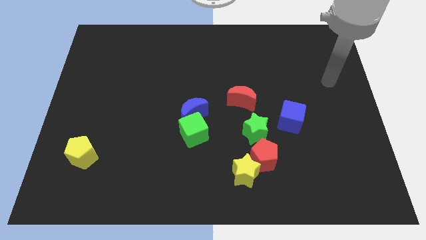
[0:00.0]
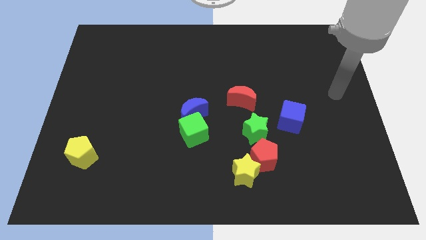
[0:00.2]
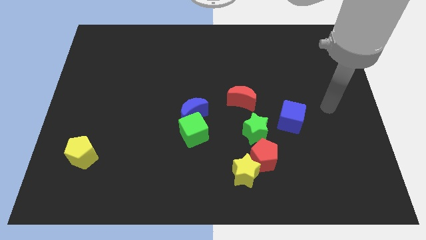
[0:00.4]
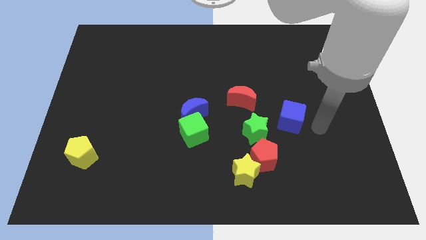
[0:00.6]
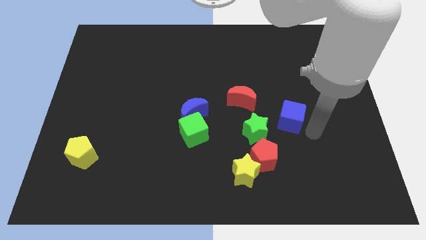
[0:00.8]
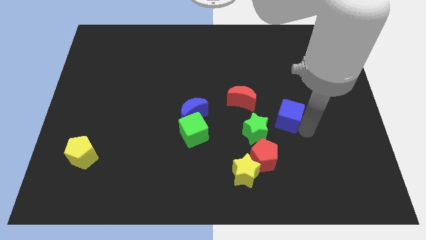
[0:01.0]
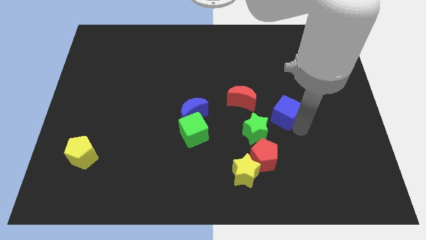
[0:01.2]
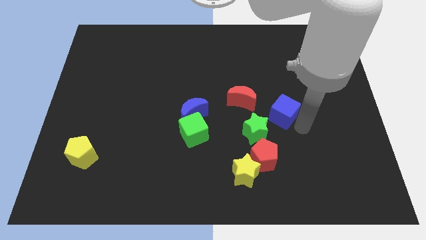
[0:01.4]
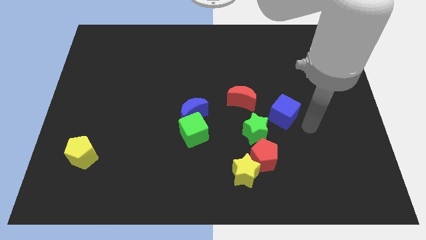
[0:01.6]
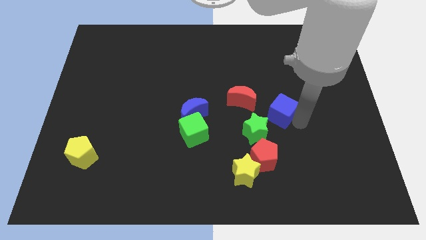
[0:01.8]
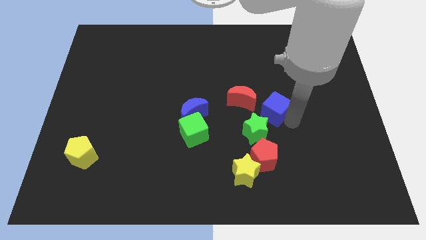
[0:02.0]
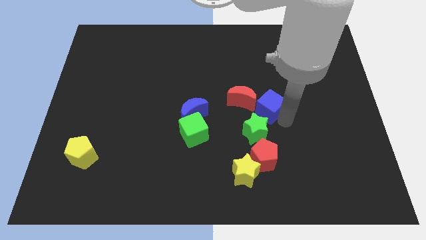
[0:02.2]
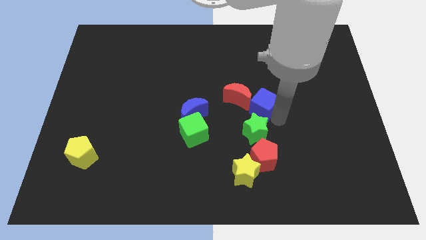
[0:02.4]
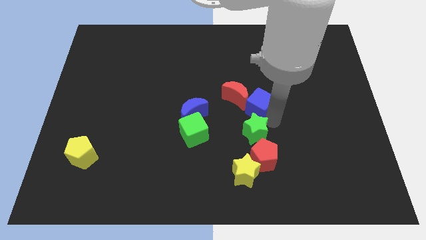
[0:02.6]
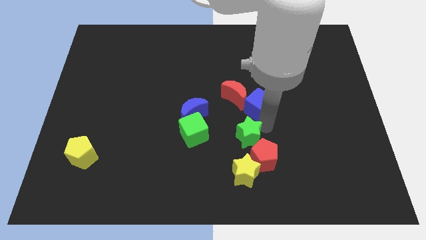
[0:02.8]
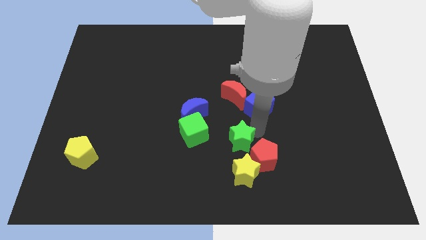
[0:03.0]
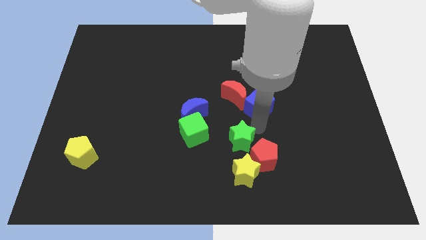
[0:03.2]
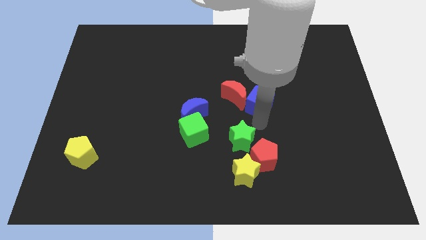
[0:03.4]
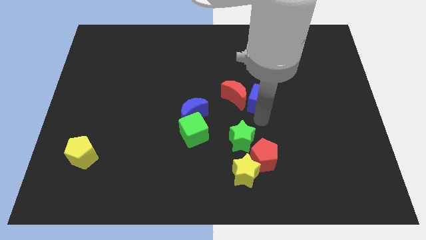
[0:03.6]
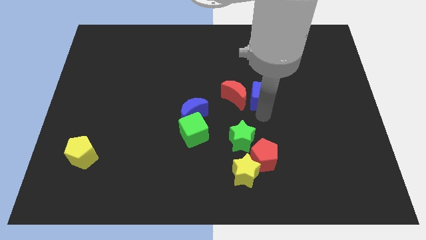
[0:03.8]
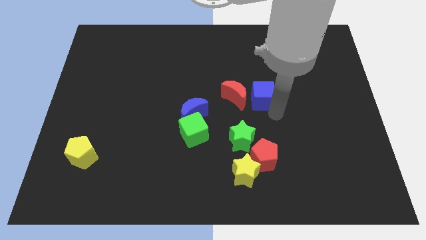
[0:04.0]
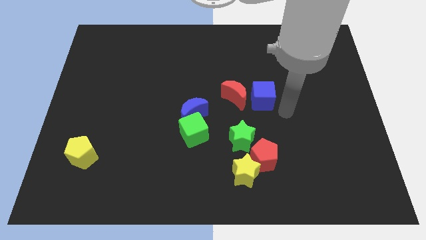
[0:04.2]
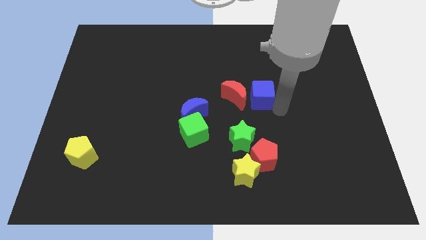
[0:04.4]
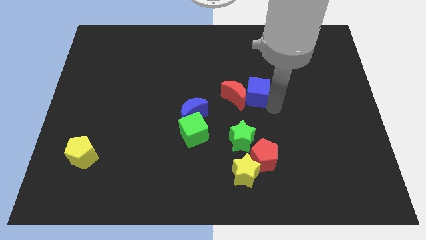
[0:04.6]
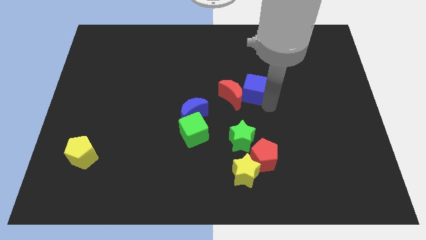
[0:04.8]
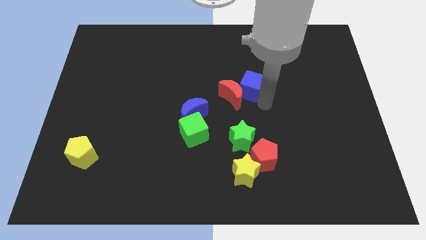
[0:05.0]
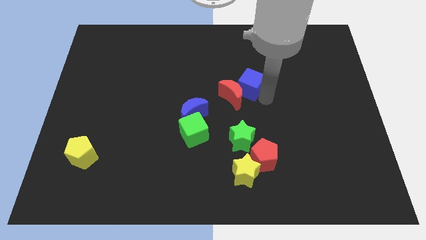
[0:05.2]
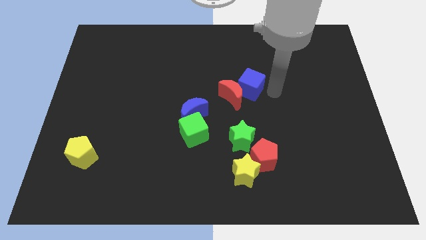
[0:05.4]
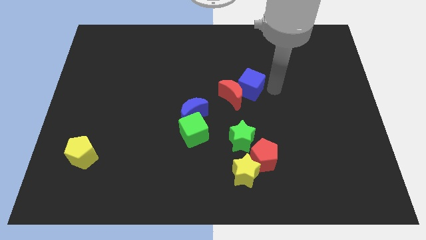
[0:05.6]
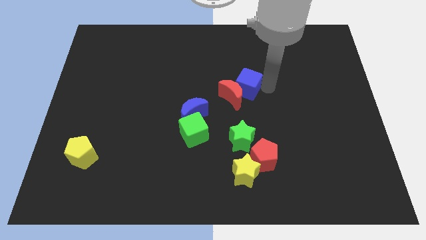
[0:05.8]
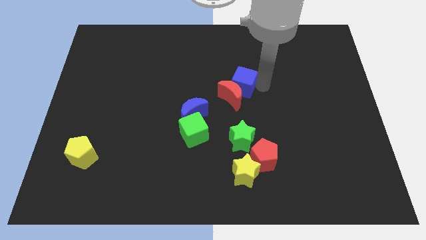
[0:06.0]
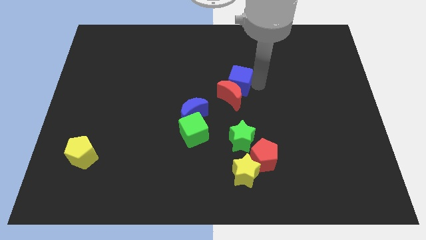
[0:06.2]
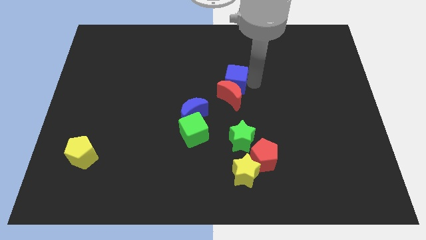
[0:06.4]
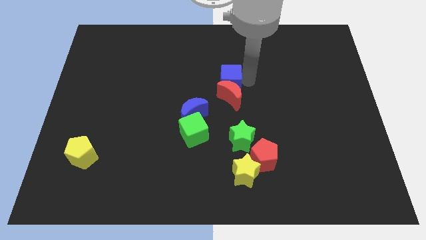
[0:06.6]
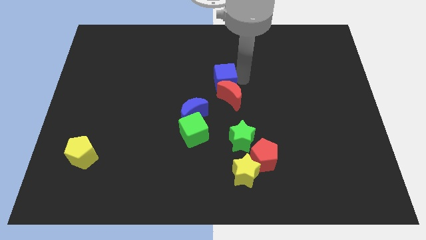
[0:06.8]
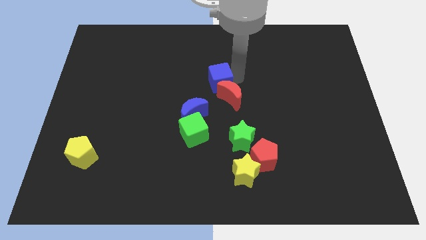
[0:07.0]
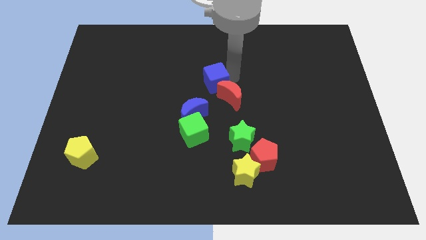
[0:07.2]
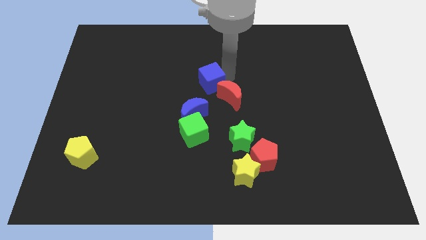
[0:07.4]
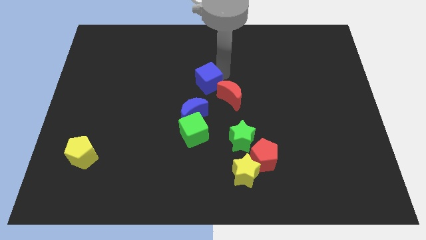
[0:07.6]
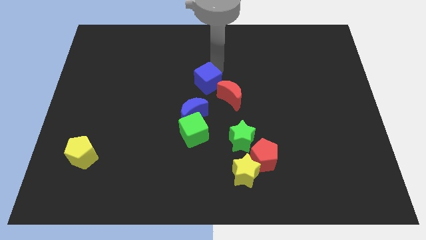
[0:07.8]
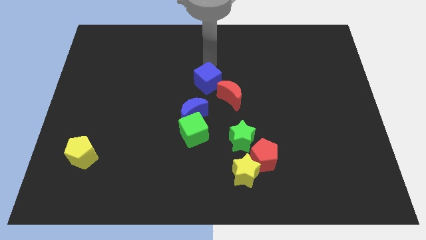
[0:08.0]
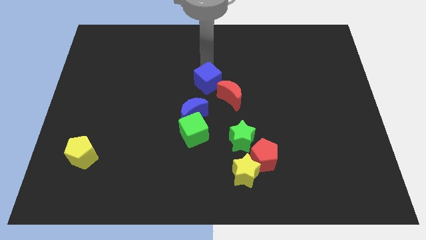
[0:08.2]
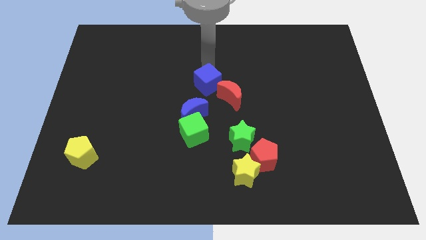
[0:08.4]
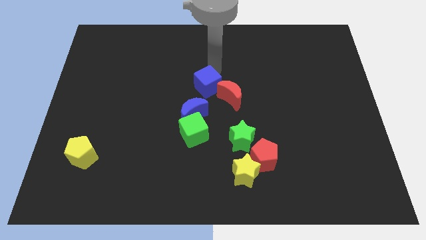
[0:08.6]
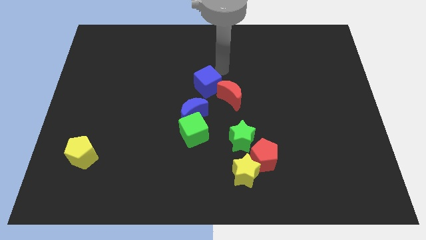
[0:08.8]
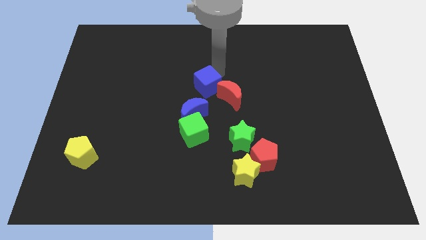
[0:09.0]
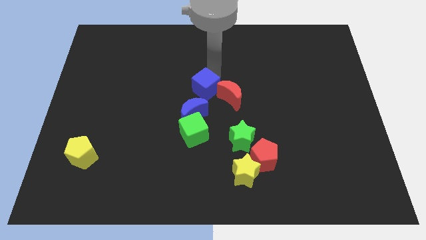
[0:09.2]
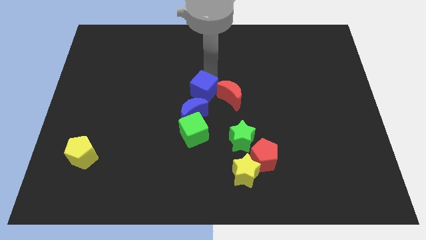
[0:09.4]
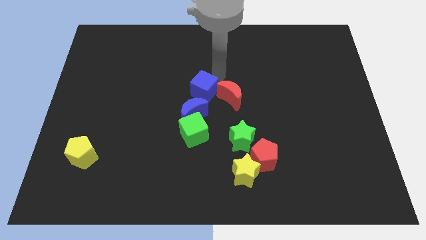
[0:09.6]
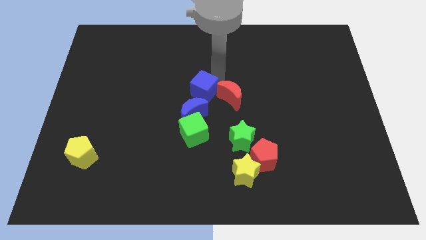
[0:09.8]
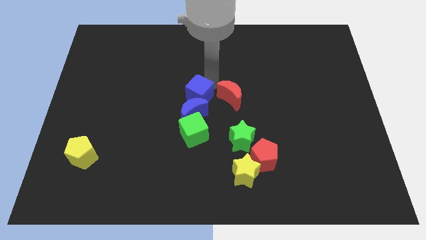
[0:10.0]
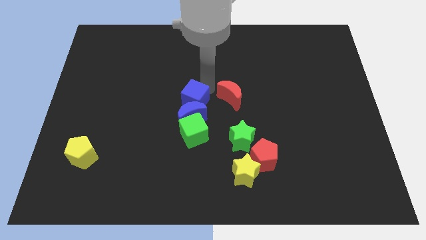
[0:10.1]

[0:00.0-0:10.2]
slide the blue cube left

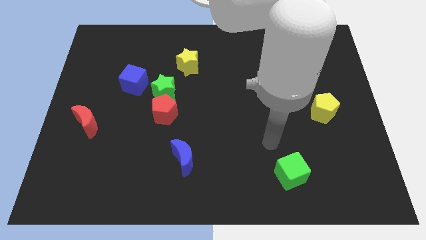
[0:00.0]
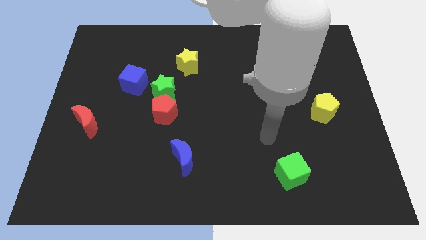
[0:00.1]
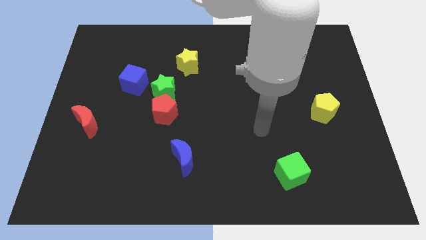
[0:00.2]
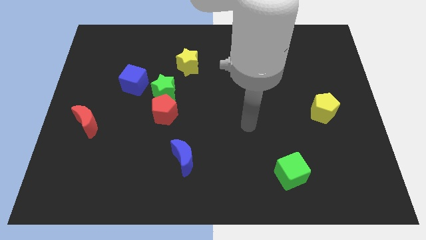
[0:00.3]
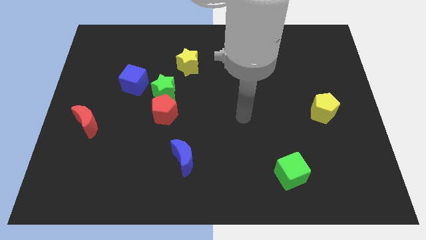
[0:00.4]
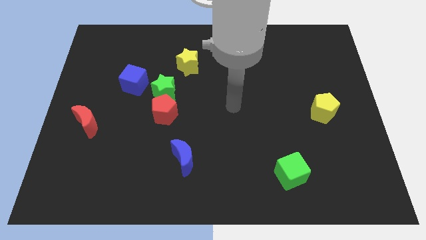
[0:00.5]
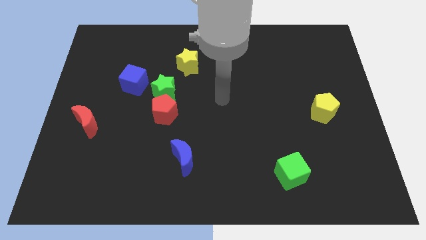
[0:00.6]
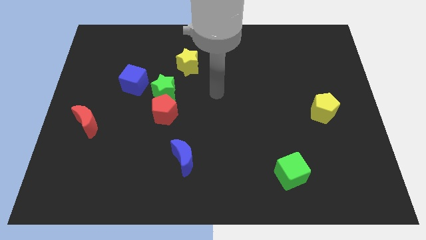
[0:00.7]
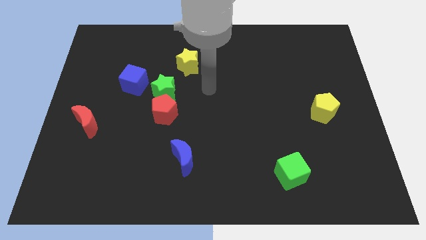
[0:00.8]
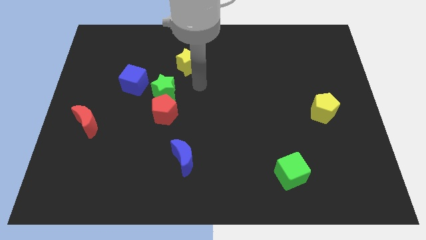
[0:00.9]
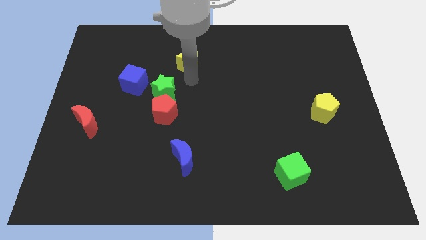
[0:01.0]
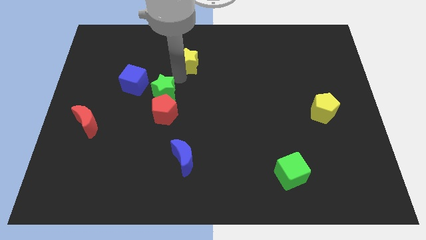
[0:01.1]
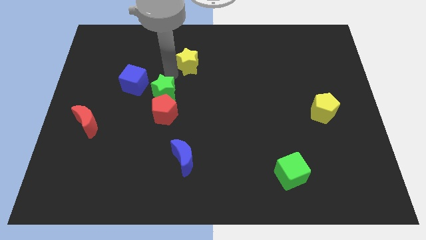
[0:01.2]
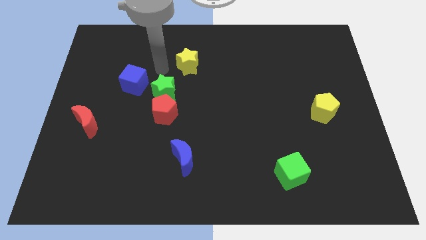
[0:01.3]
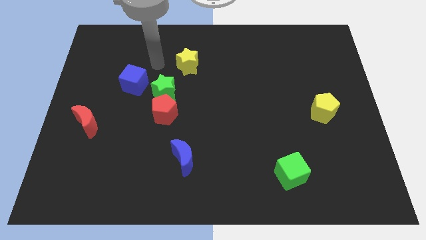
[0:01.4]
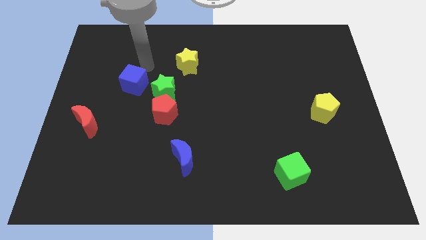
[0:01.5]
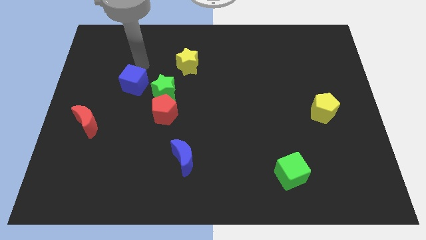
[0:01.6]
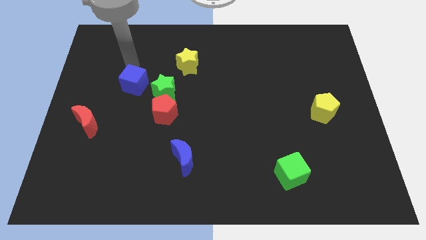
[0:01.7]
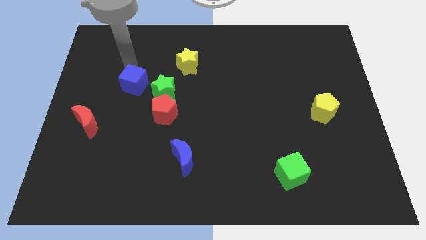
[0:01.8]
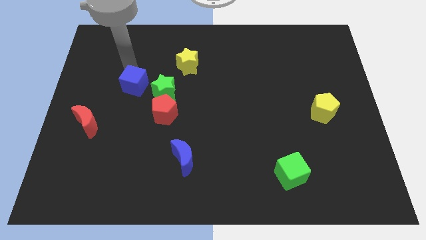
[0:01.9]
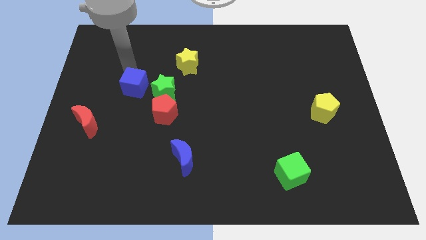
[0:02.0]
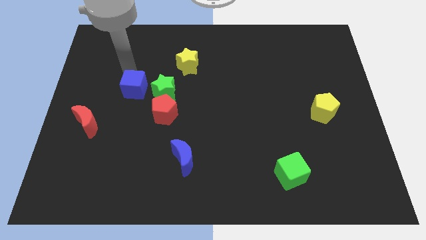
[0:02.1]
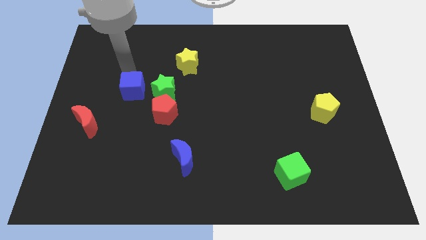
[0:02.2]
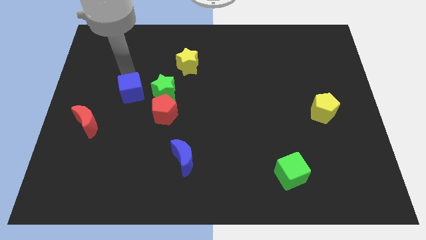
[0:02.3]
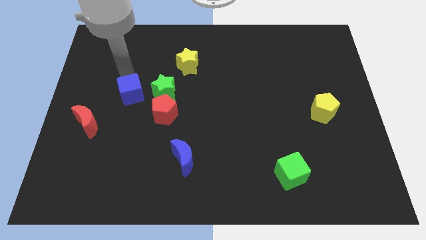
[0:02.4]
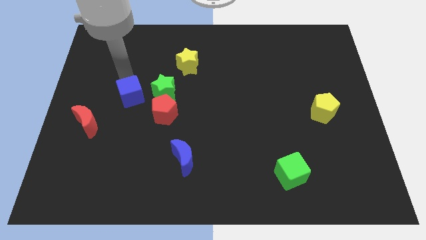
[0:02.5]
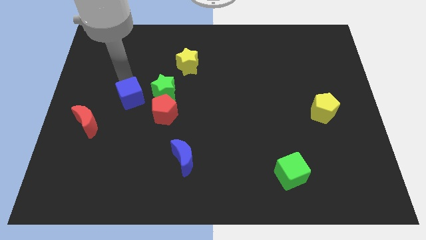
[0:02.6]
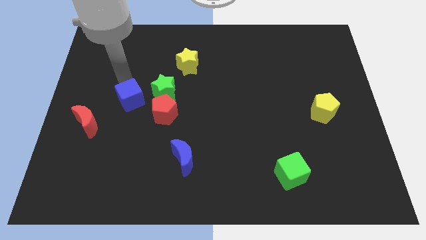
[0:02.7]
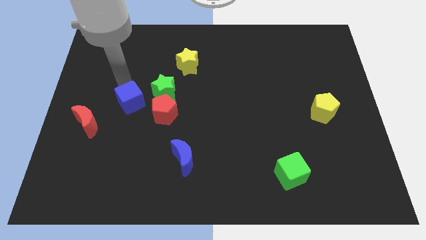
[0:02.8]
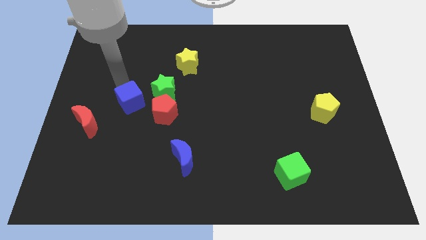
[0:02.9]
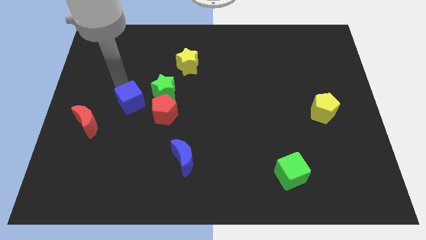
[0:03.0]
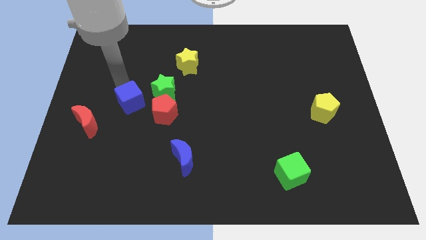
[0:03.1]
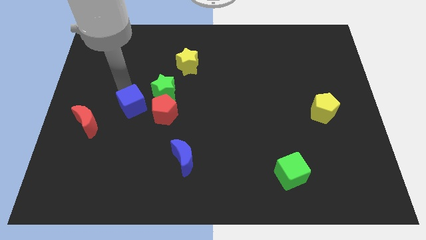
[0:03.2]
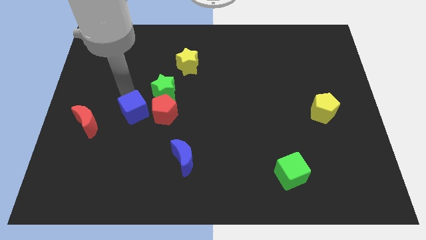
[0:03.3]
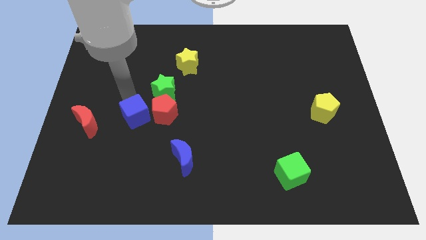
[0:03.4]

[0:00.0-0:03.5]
slide the blue cube a little down and right
